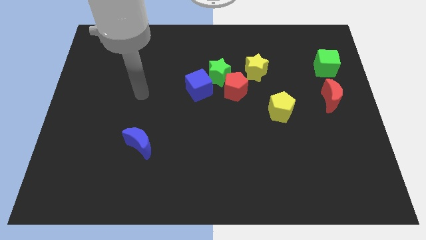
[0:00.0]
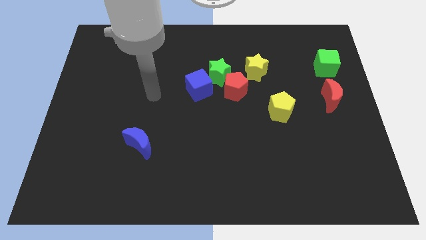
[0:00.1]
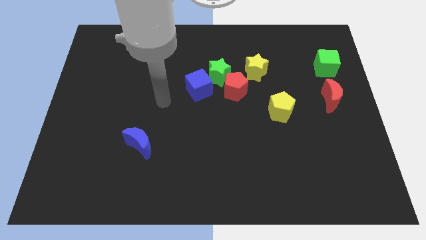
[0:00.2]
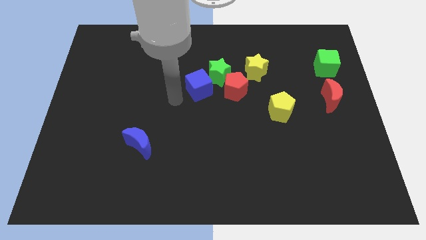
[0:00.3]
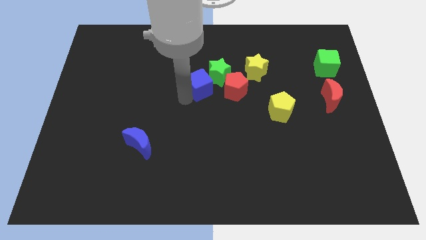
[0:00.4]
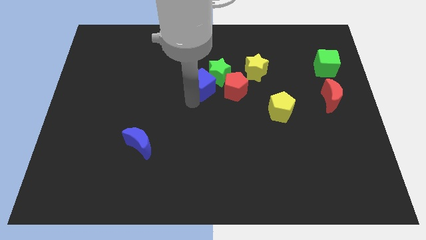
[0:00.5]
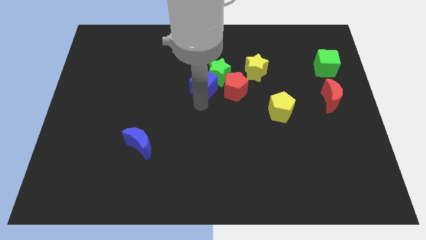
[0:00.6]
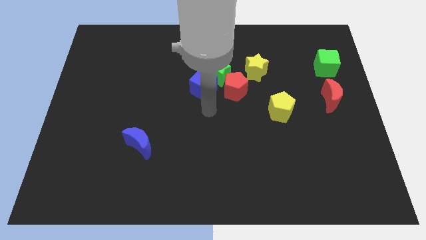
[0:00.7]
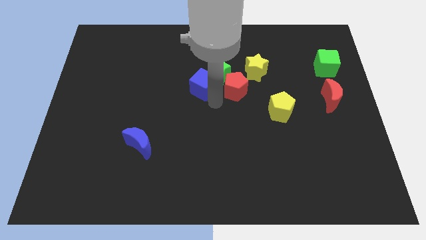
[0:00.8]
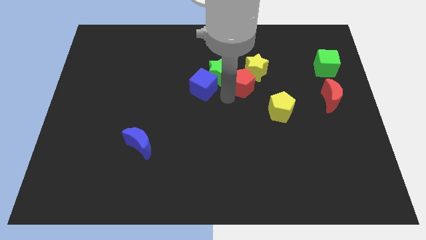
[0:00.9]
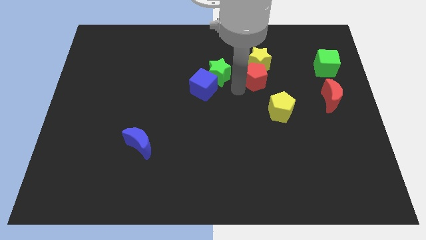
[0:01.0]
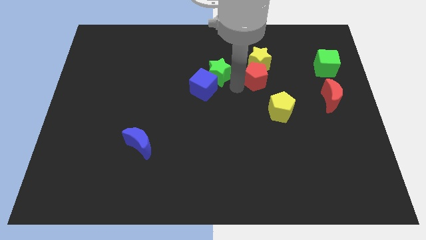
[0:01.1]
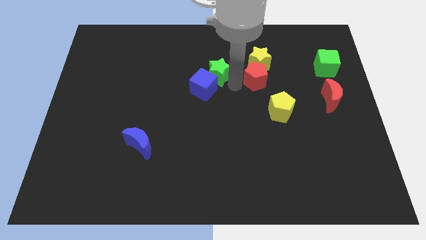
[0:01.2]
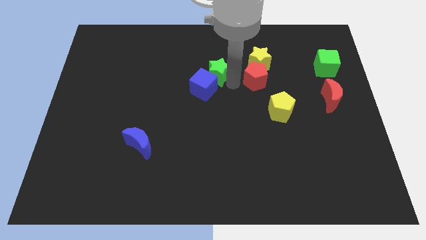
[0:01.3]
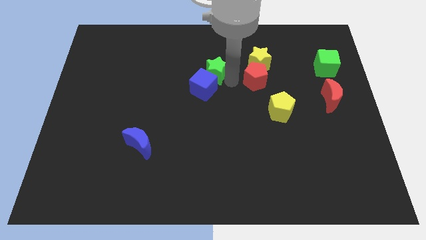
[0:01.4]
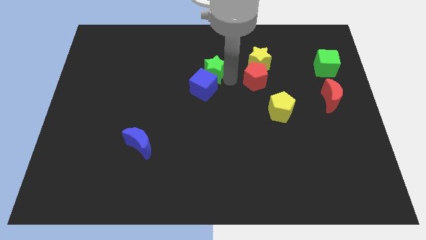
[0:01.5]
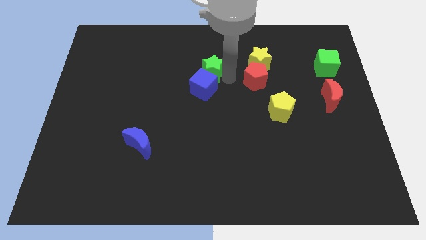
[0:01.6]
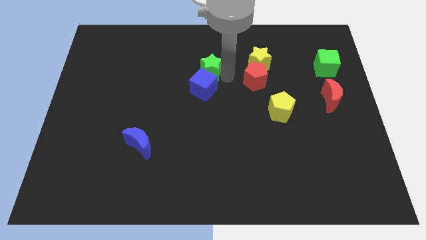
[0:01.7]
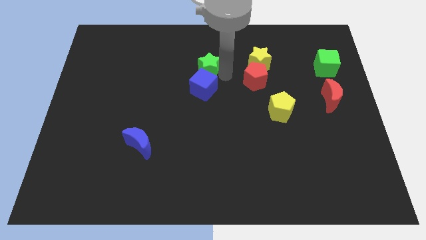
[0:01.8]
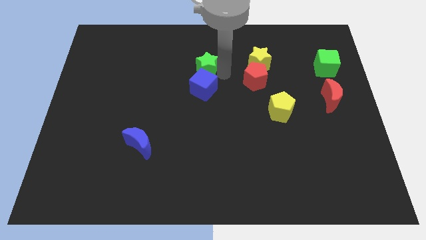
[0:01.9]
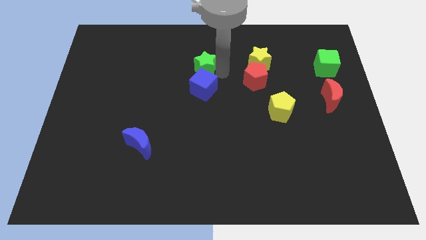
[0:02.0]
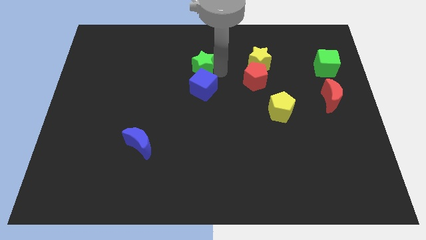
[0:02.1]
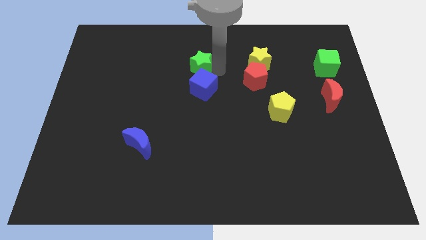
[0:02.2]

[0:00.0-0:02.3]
separate the green star from the group

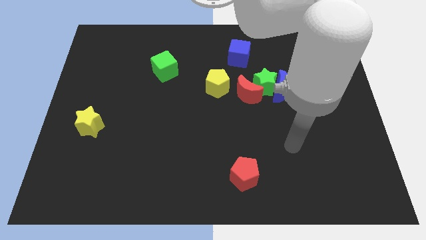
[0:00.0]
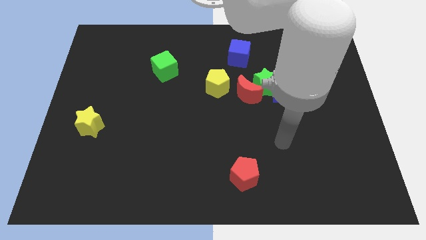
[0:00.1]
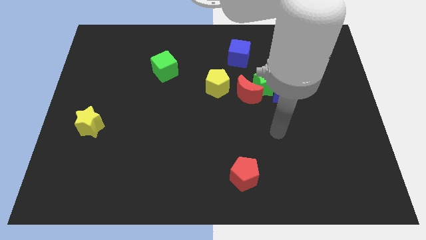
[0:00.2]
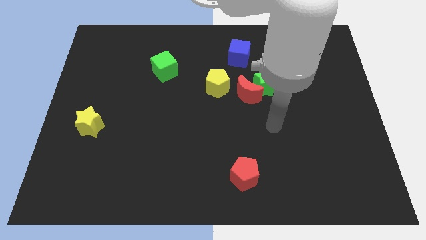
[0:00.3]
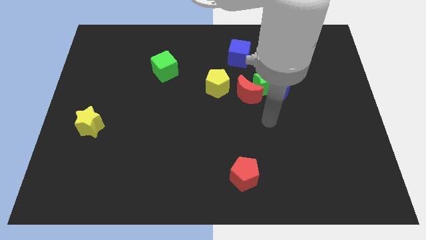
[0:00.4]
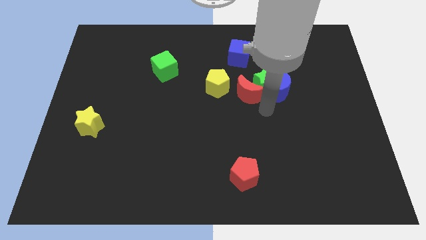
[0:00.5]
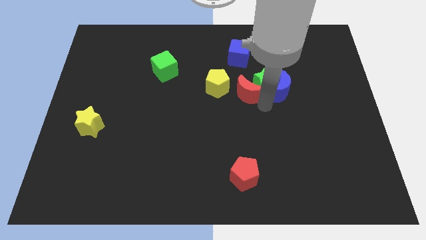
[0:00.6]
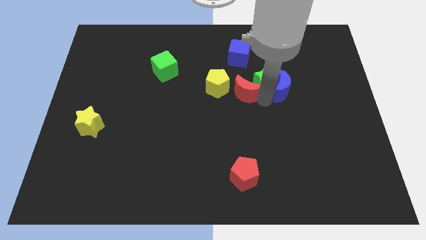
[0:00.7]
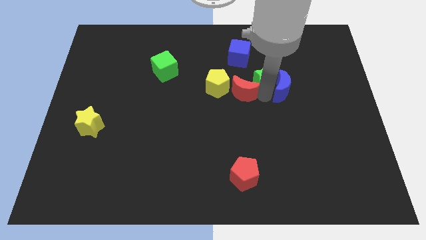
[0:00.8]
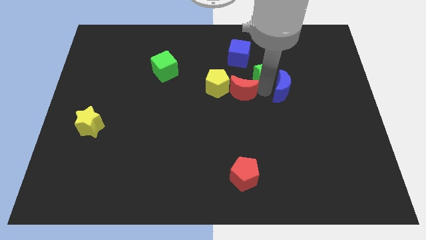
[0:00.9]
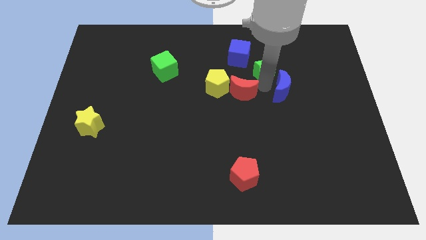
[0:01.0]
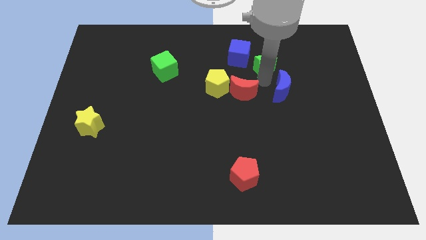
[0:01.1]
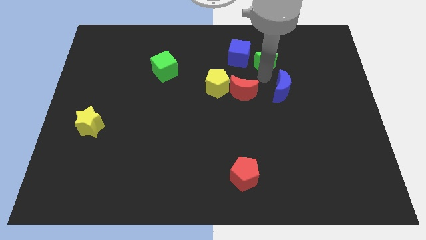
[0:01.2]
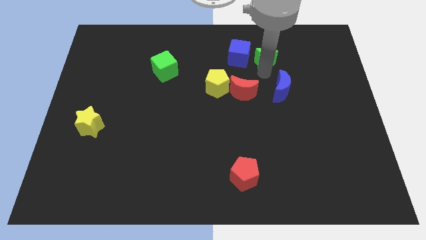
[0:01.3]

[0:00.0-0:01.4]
move the green star away from the blue moon and red moon

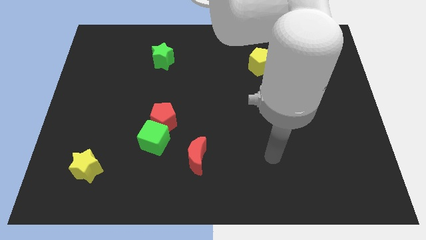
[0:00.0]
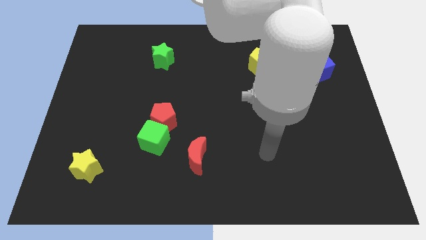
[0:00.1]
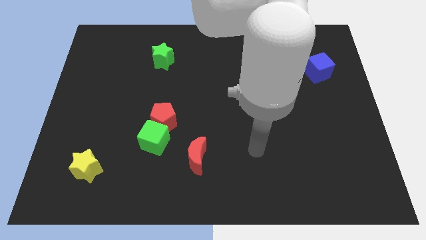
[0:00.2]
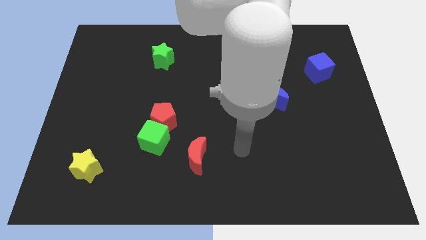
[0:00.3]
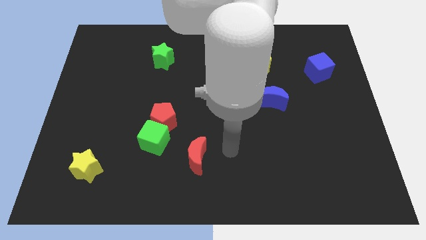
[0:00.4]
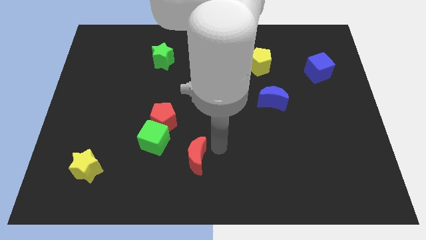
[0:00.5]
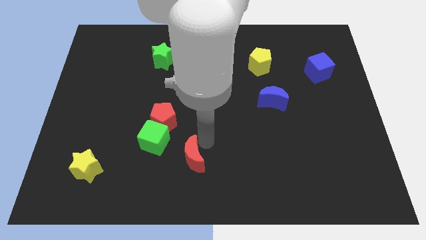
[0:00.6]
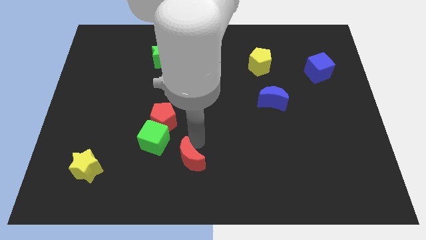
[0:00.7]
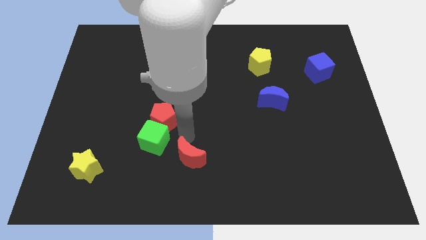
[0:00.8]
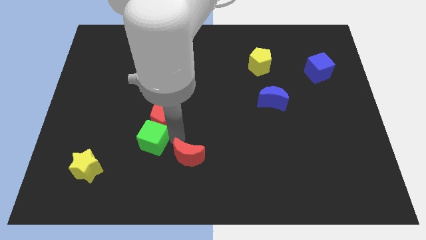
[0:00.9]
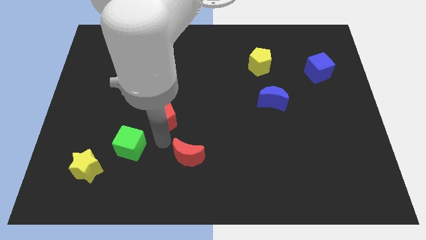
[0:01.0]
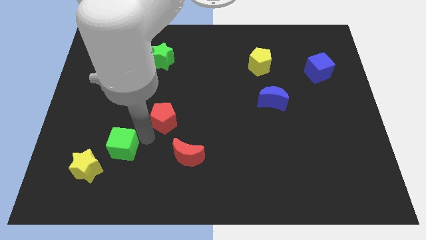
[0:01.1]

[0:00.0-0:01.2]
separate the red pentagon from the green cube

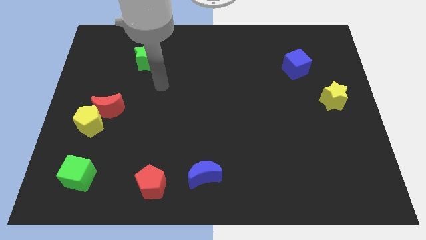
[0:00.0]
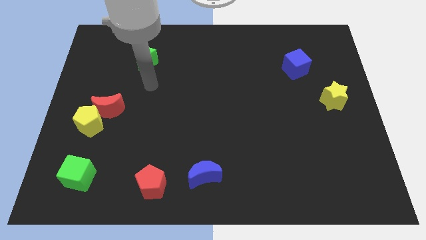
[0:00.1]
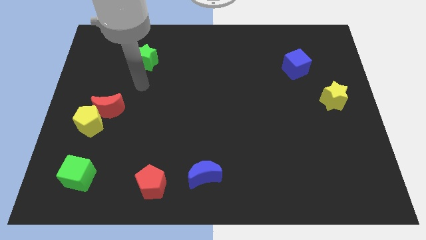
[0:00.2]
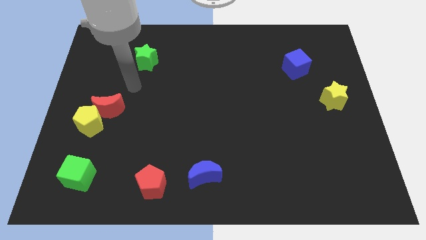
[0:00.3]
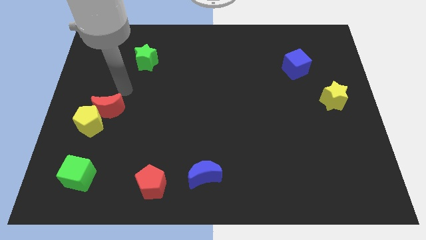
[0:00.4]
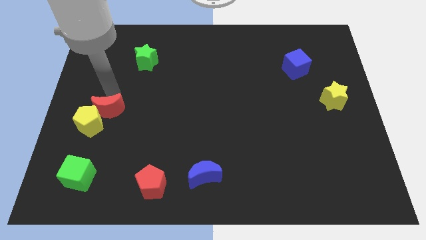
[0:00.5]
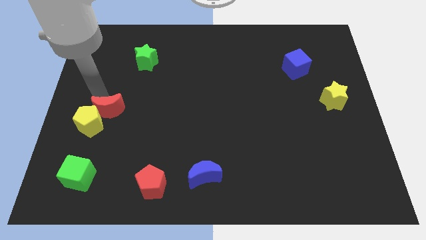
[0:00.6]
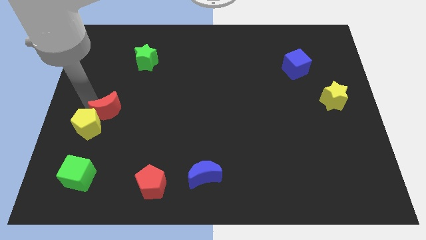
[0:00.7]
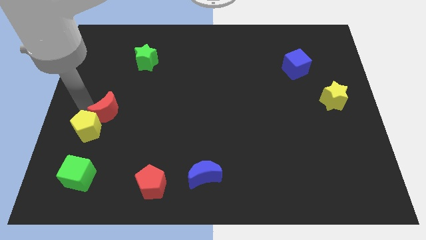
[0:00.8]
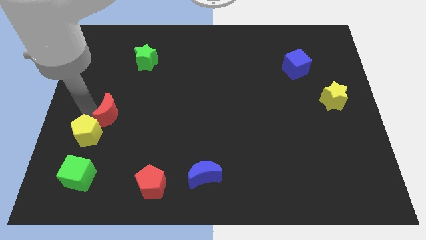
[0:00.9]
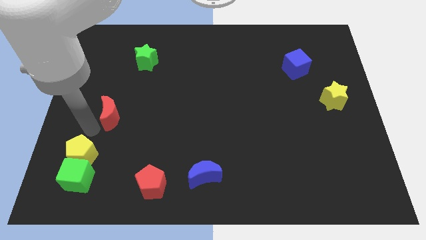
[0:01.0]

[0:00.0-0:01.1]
move the red moon away from the yellow pentagon

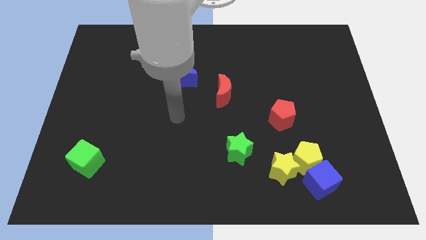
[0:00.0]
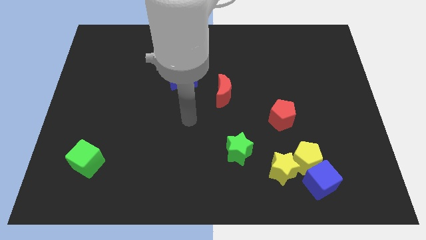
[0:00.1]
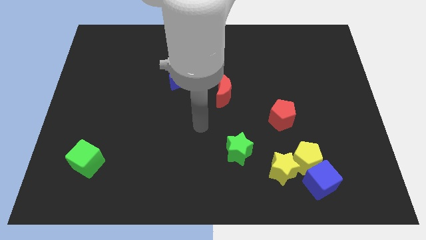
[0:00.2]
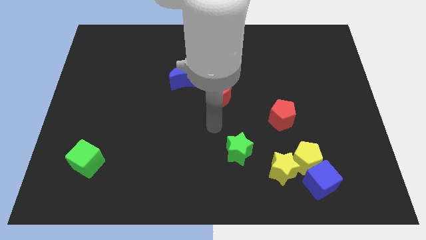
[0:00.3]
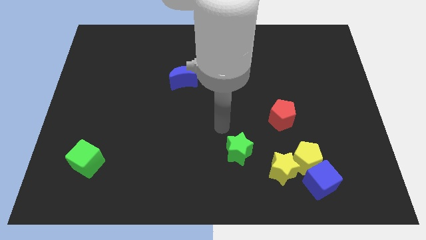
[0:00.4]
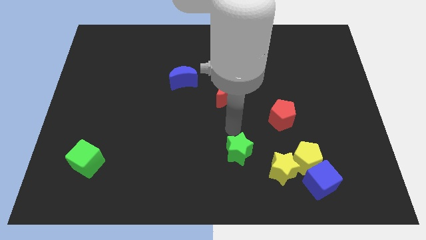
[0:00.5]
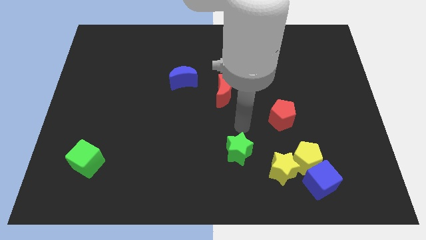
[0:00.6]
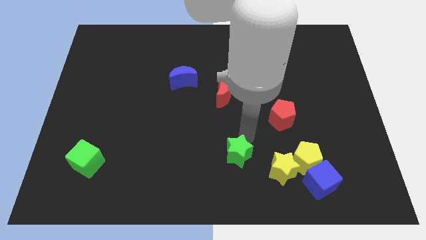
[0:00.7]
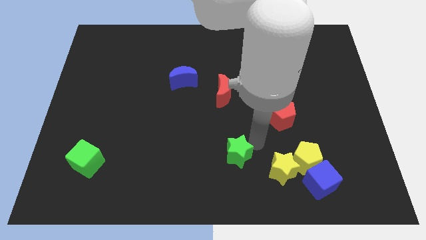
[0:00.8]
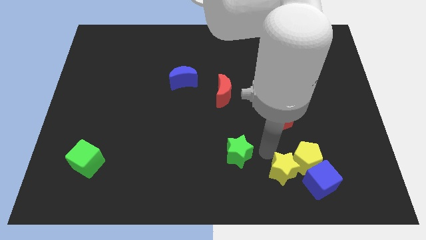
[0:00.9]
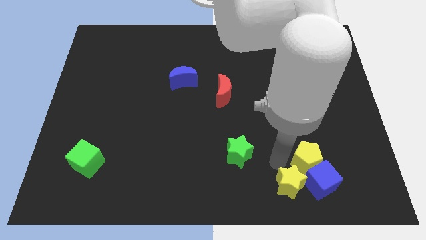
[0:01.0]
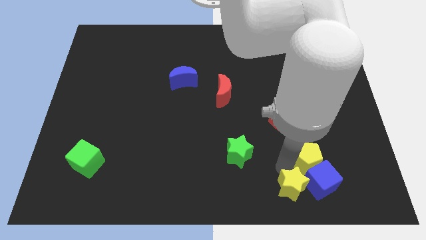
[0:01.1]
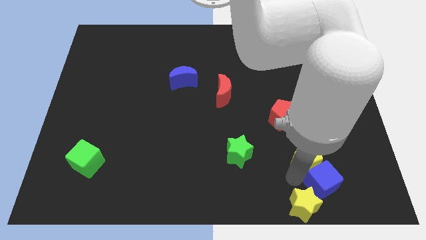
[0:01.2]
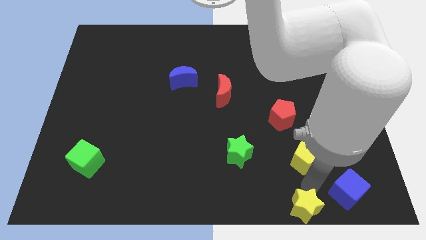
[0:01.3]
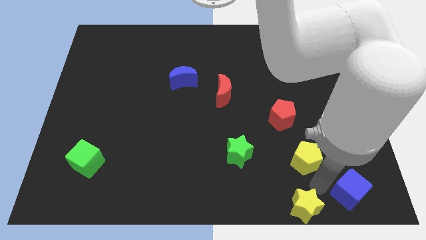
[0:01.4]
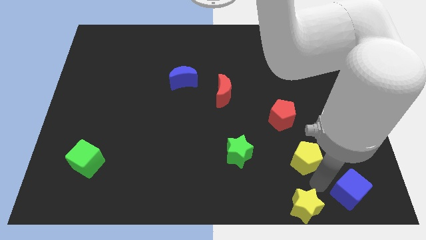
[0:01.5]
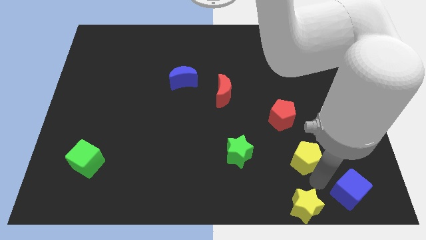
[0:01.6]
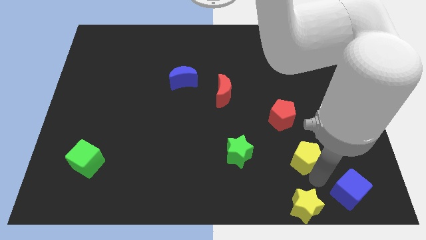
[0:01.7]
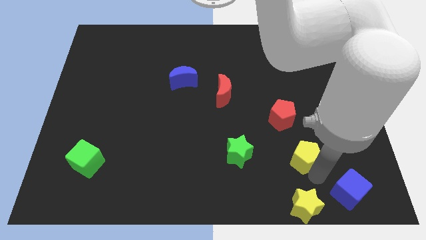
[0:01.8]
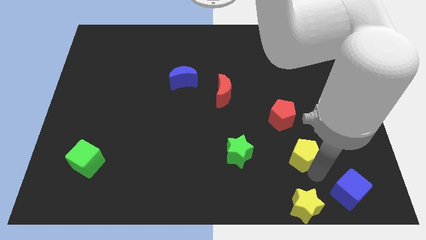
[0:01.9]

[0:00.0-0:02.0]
move the yellow pentagon away from the yellow star and blue cube

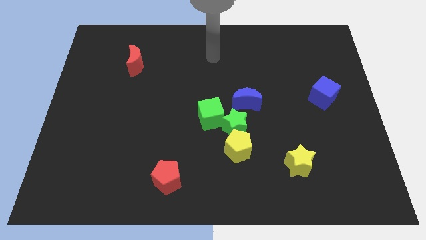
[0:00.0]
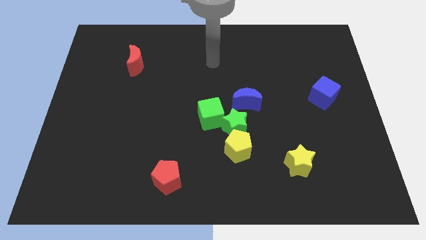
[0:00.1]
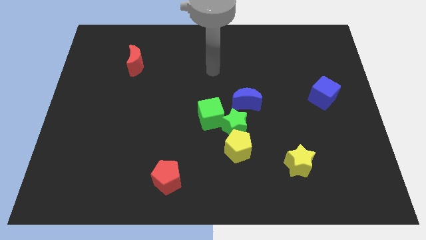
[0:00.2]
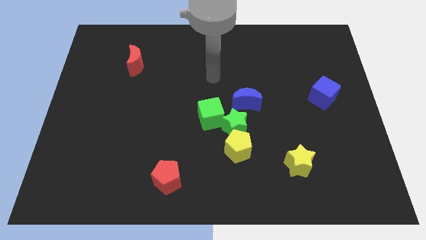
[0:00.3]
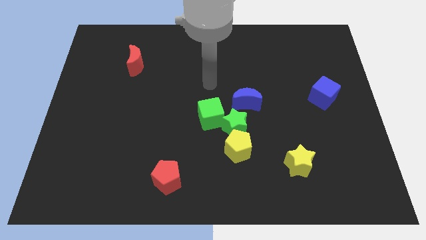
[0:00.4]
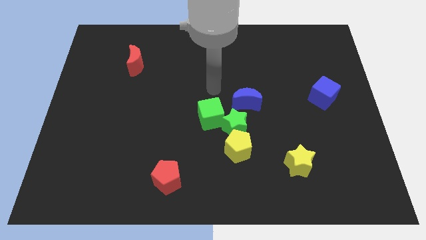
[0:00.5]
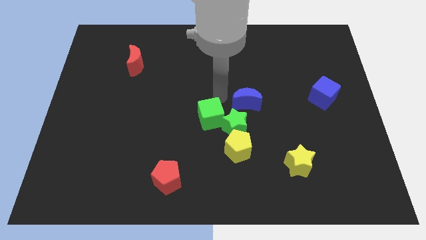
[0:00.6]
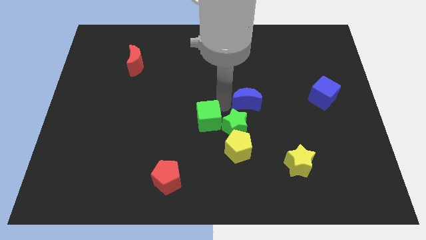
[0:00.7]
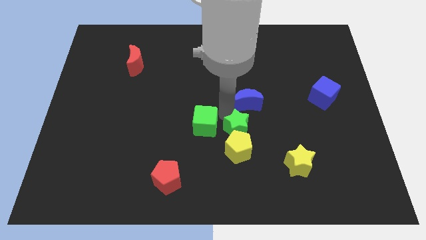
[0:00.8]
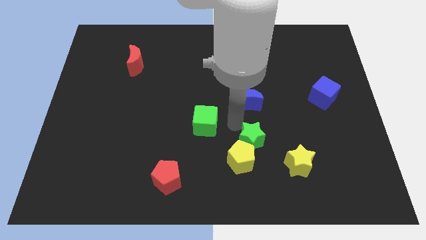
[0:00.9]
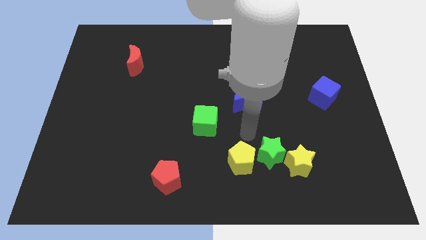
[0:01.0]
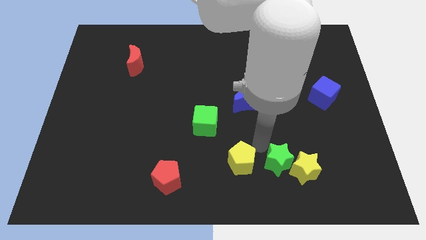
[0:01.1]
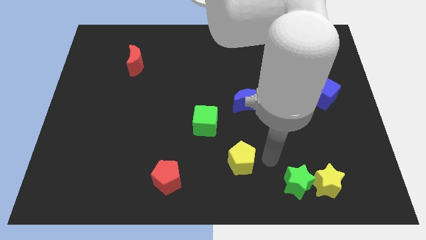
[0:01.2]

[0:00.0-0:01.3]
separate the yellow pentagon from the green star
